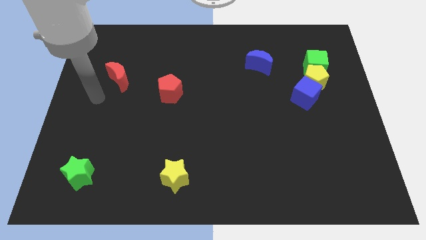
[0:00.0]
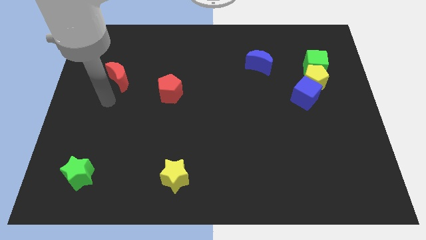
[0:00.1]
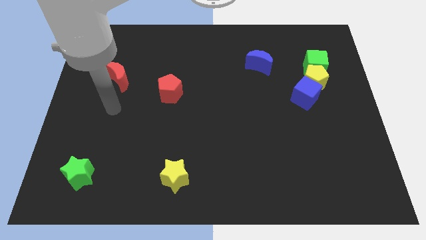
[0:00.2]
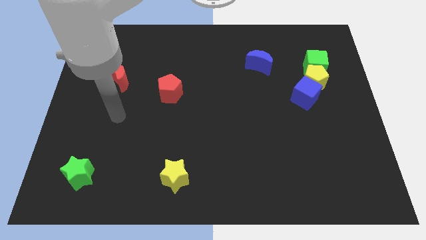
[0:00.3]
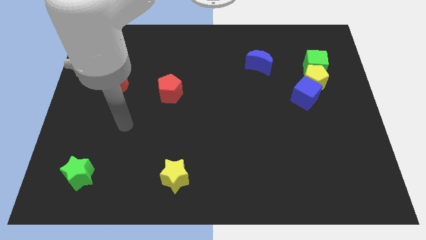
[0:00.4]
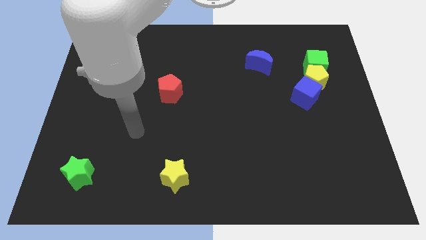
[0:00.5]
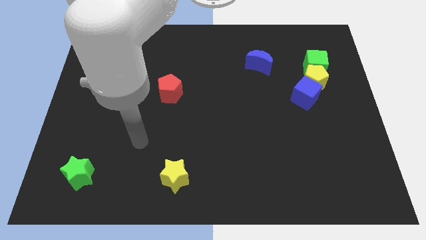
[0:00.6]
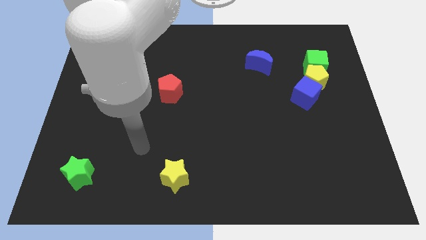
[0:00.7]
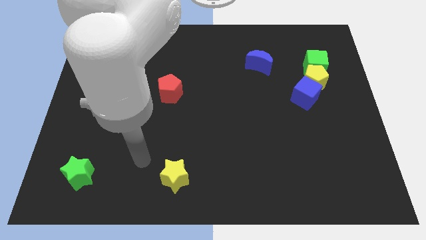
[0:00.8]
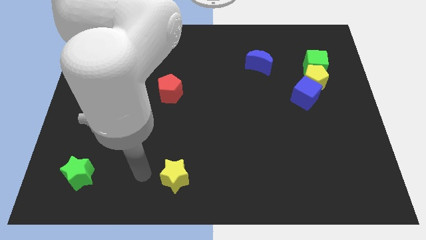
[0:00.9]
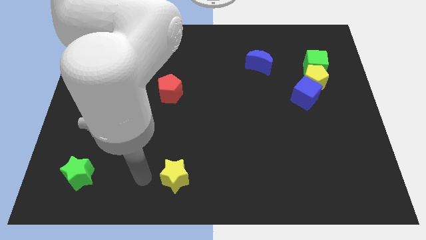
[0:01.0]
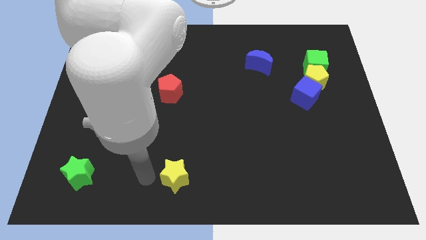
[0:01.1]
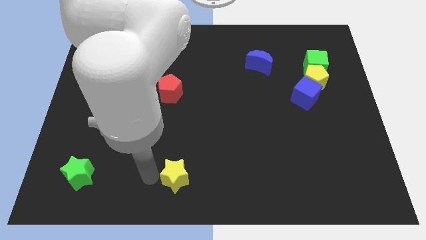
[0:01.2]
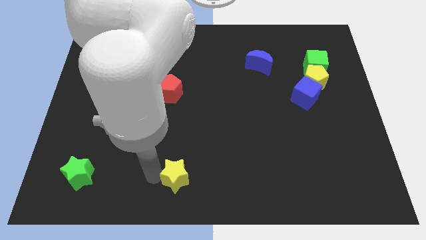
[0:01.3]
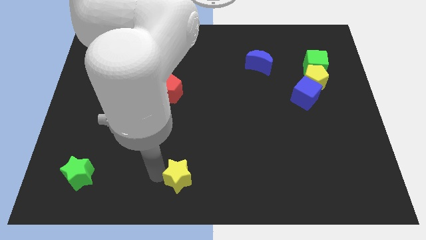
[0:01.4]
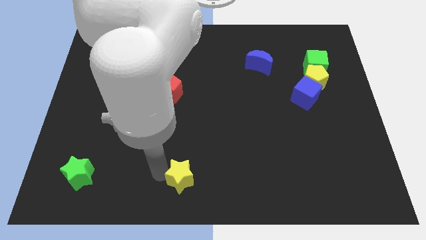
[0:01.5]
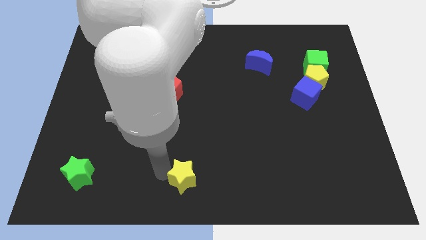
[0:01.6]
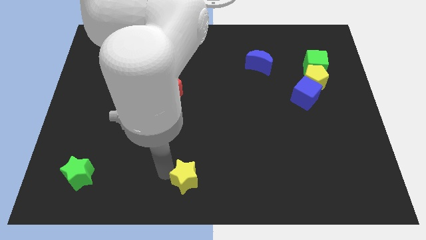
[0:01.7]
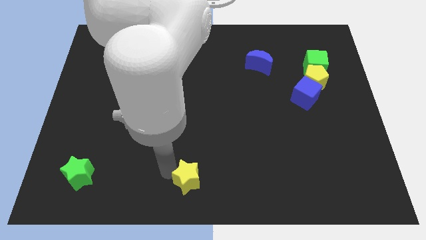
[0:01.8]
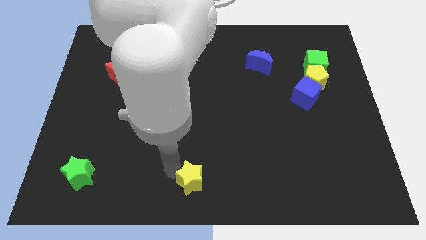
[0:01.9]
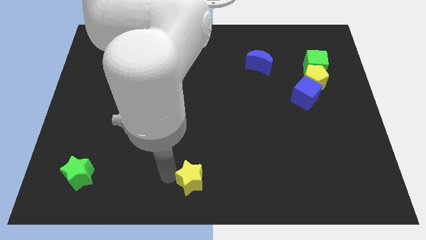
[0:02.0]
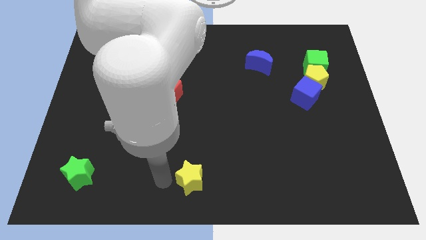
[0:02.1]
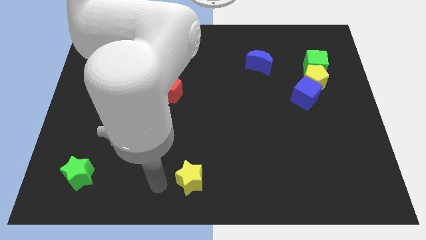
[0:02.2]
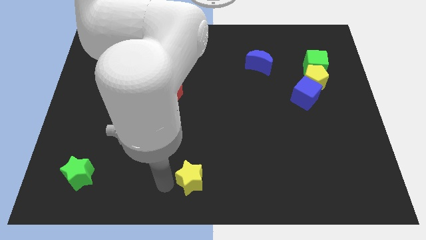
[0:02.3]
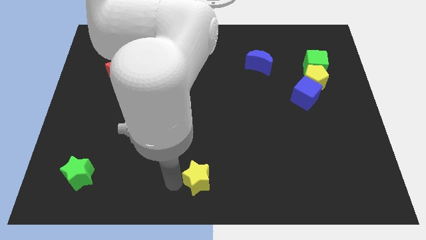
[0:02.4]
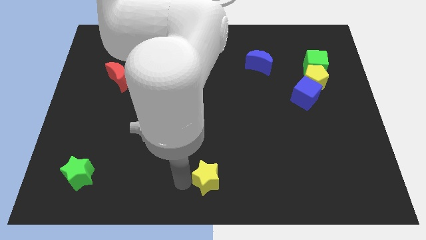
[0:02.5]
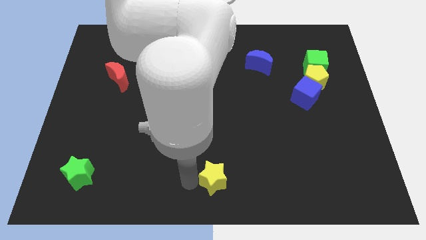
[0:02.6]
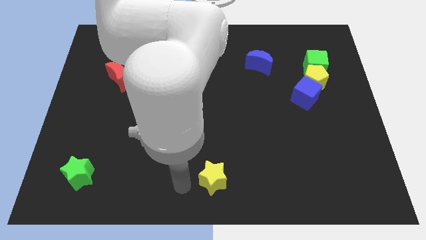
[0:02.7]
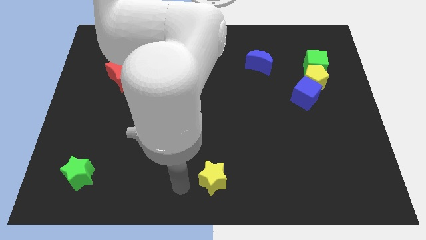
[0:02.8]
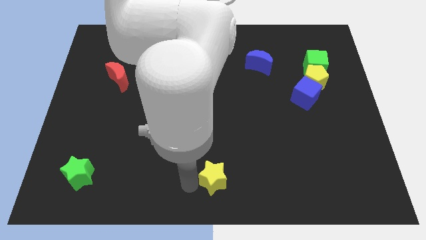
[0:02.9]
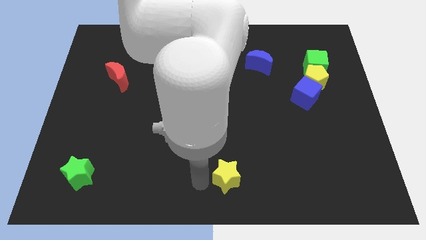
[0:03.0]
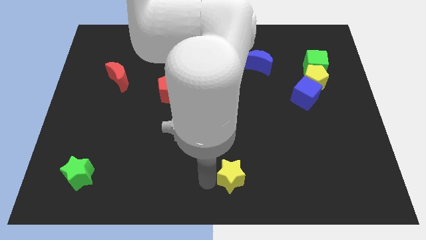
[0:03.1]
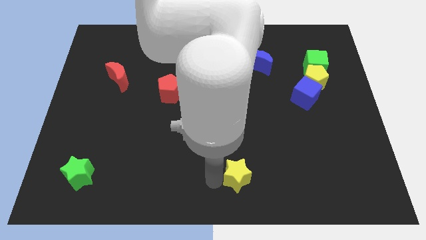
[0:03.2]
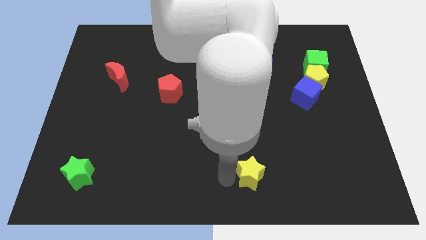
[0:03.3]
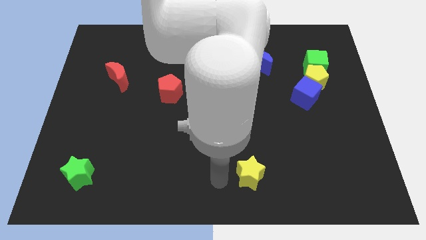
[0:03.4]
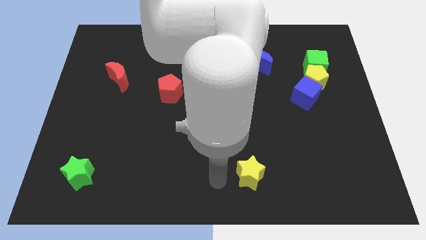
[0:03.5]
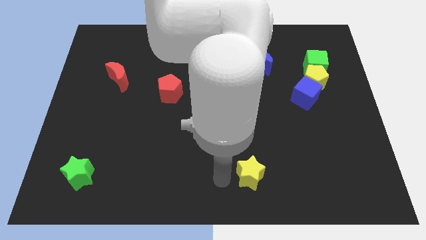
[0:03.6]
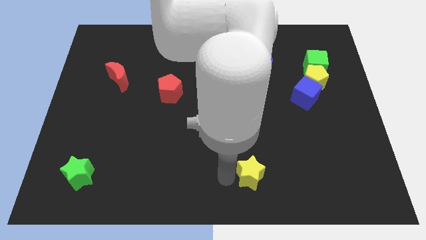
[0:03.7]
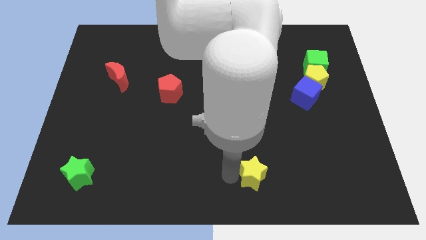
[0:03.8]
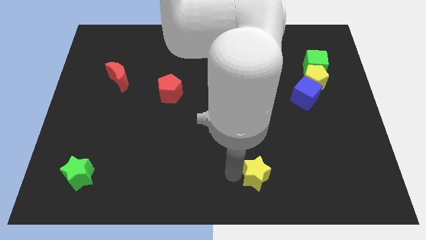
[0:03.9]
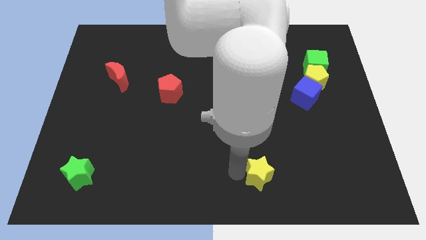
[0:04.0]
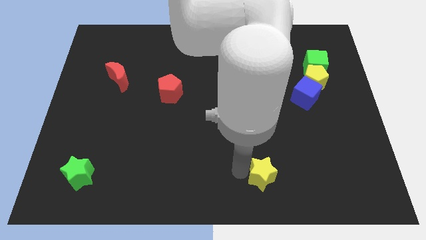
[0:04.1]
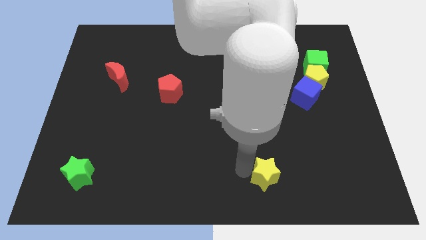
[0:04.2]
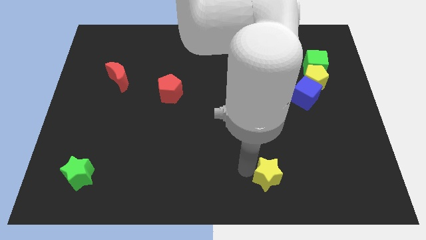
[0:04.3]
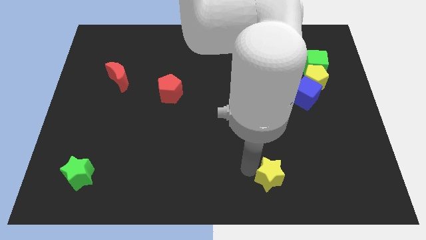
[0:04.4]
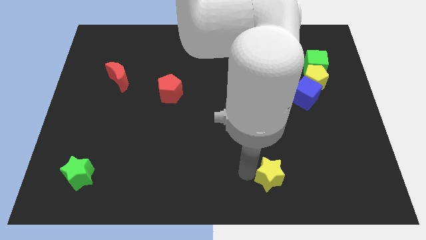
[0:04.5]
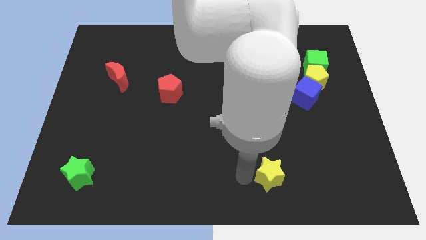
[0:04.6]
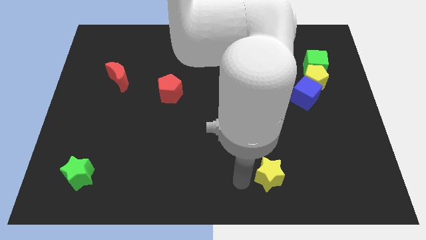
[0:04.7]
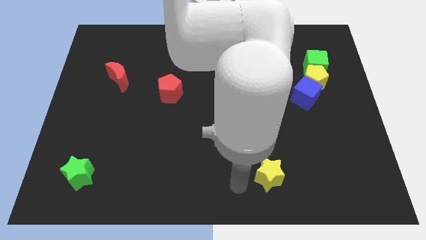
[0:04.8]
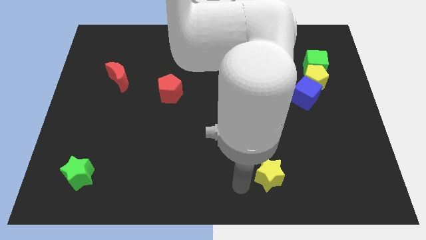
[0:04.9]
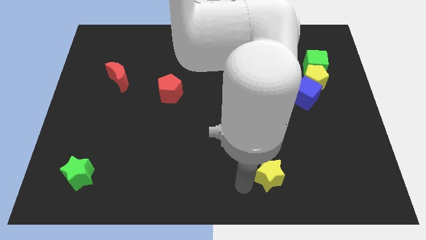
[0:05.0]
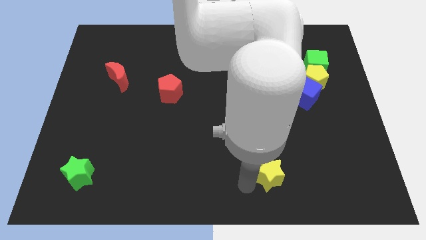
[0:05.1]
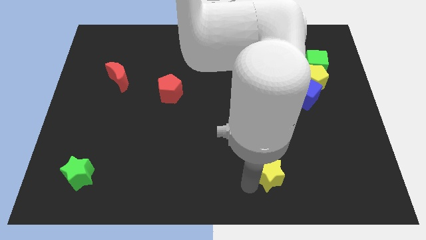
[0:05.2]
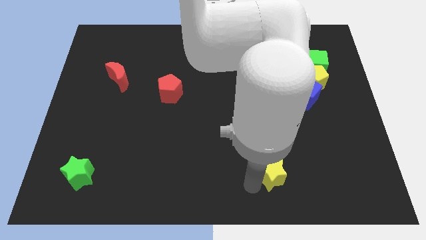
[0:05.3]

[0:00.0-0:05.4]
move the yellow star right

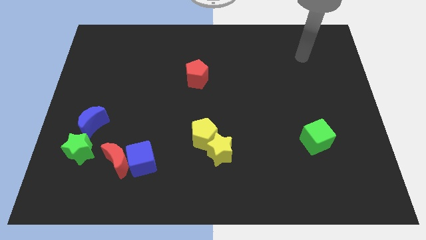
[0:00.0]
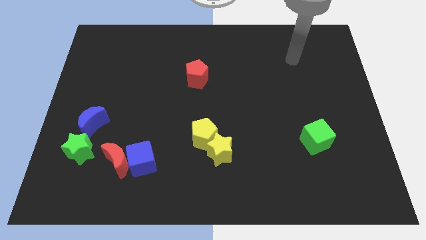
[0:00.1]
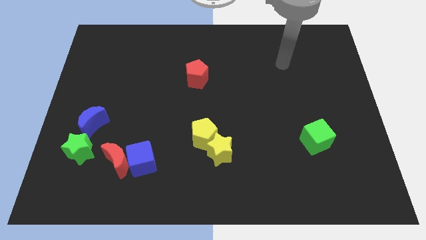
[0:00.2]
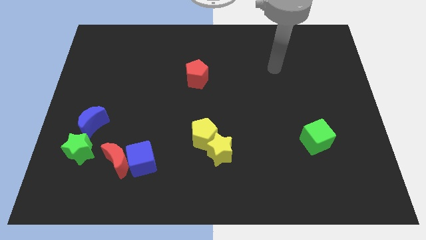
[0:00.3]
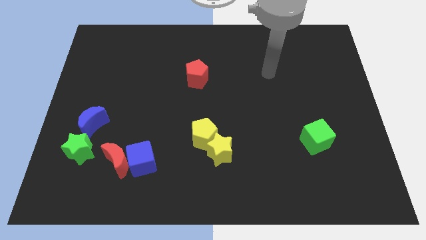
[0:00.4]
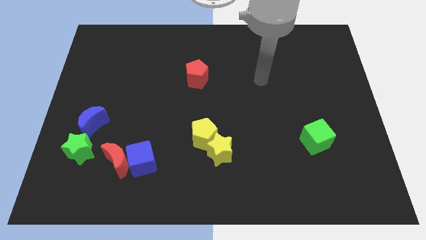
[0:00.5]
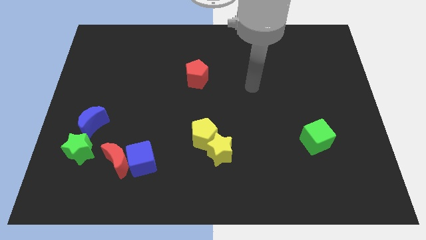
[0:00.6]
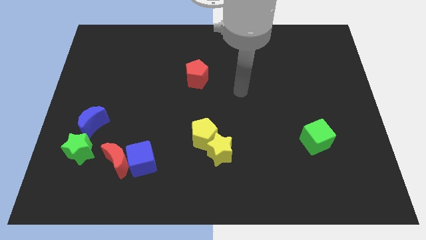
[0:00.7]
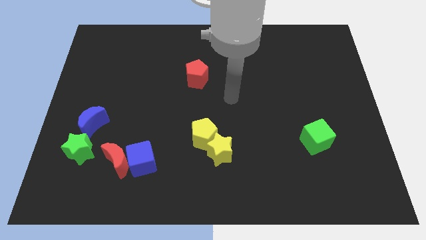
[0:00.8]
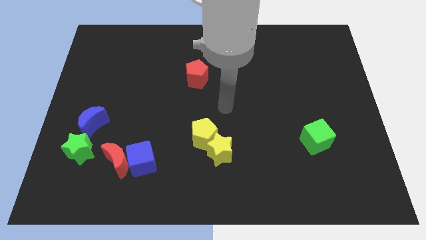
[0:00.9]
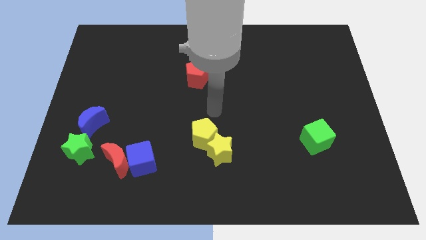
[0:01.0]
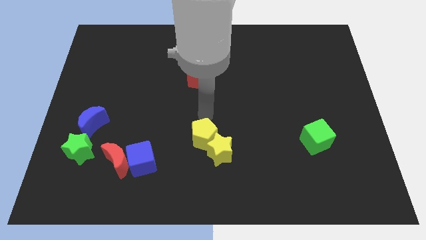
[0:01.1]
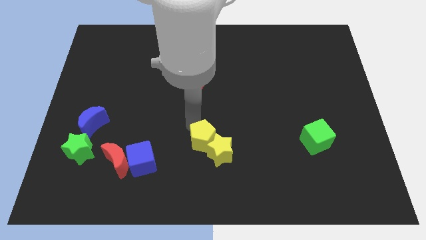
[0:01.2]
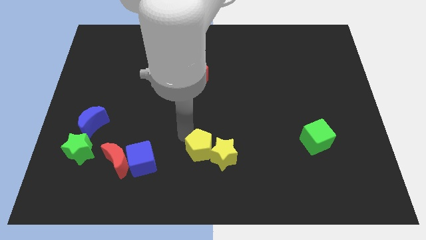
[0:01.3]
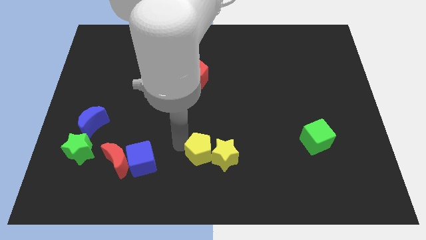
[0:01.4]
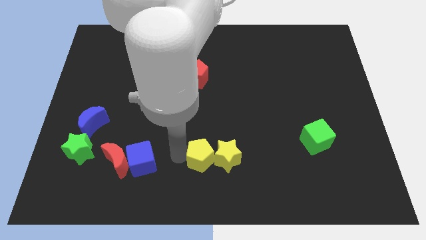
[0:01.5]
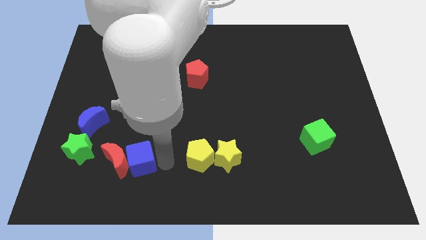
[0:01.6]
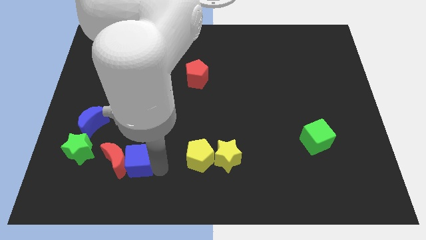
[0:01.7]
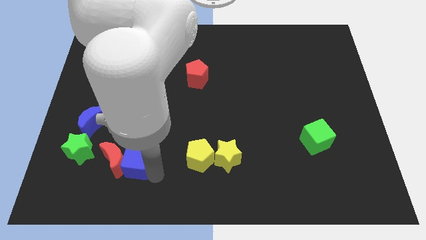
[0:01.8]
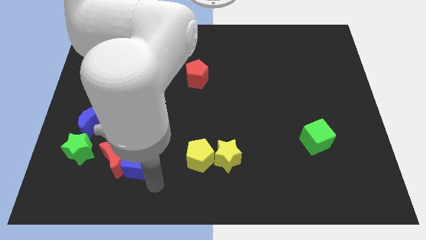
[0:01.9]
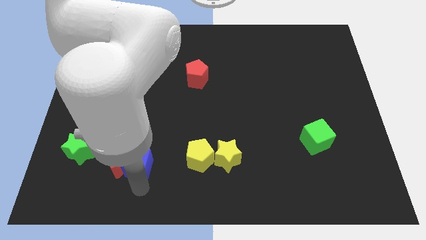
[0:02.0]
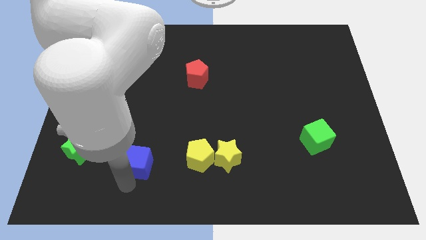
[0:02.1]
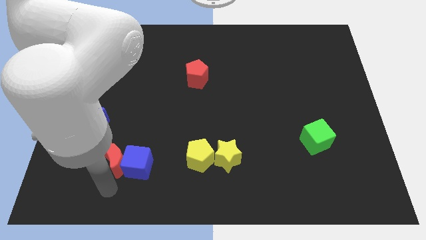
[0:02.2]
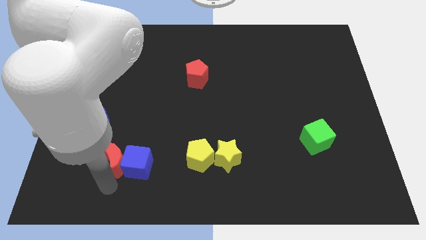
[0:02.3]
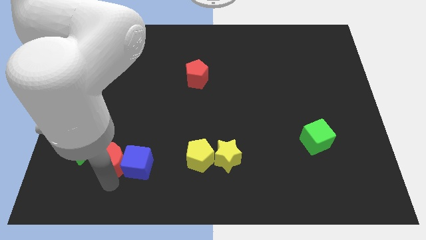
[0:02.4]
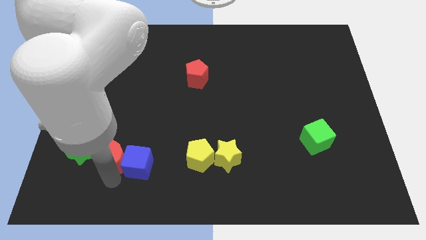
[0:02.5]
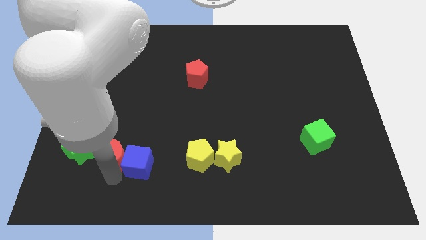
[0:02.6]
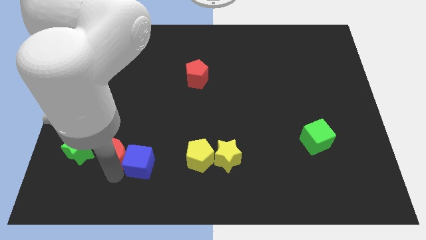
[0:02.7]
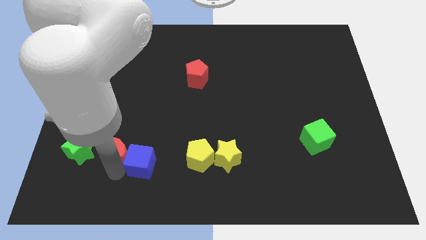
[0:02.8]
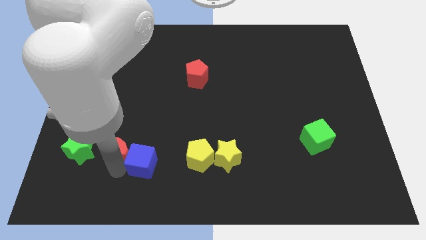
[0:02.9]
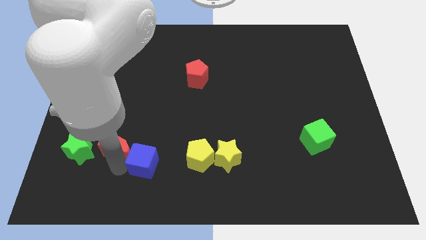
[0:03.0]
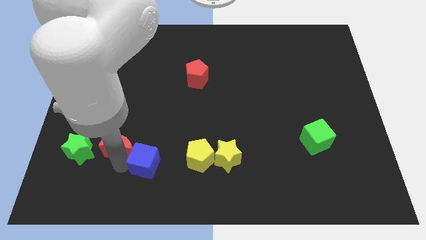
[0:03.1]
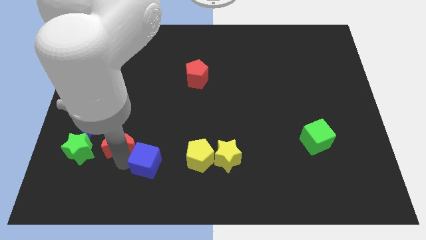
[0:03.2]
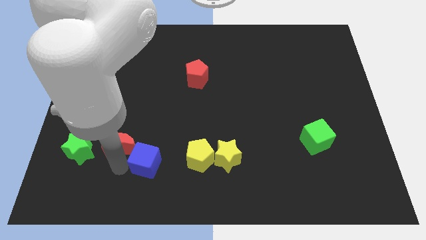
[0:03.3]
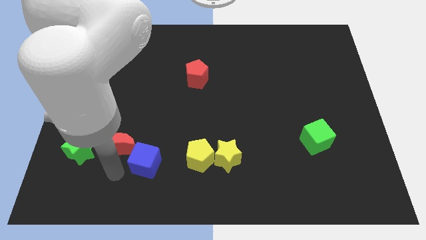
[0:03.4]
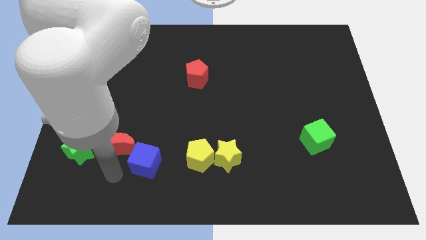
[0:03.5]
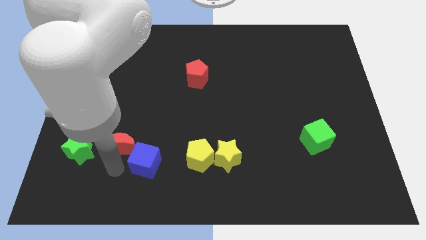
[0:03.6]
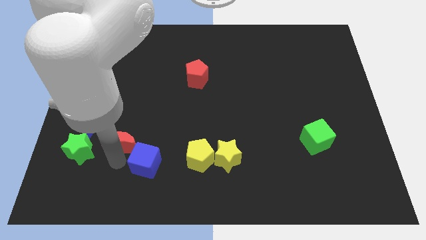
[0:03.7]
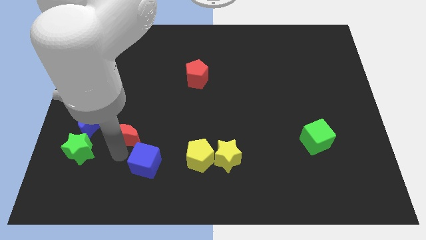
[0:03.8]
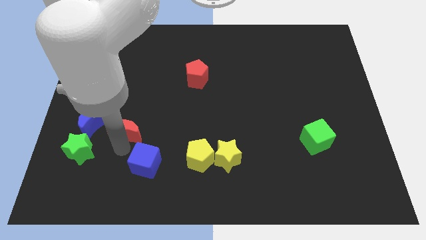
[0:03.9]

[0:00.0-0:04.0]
slightly push the red moon upwards
